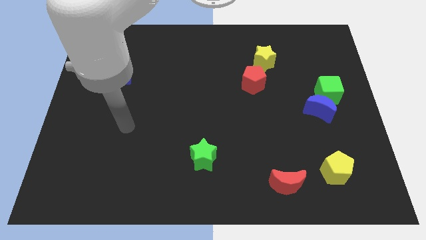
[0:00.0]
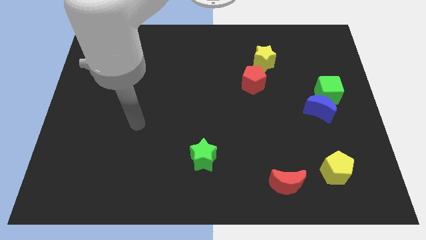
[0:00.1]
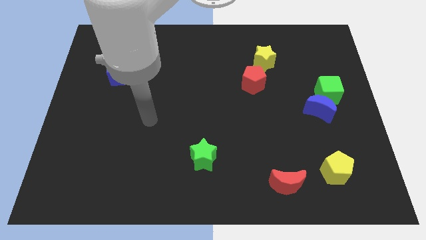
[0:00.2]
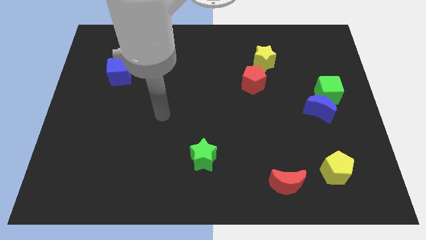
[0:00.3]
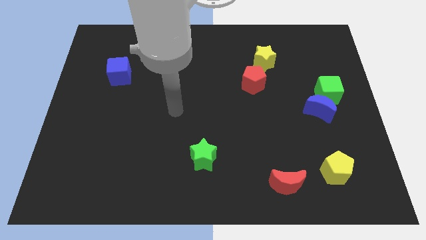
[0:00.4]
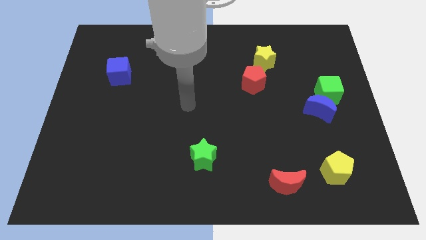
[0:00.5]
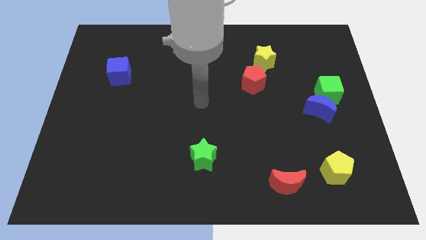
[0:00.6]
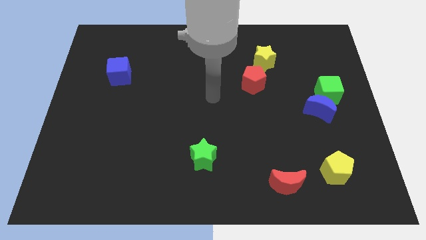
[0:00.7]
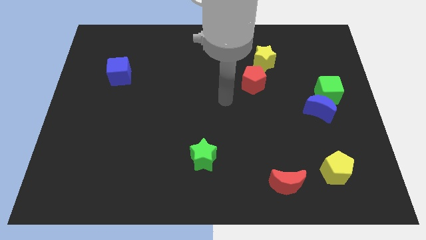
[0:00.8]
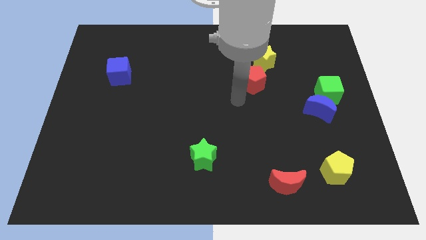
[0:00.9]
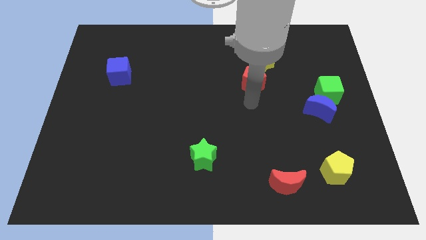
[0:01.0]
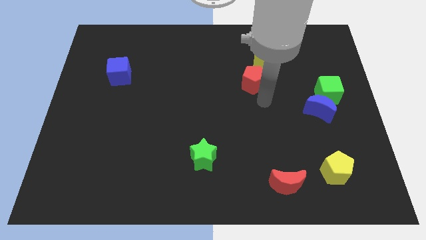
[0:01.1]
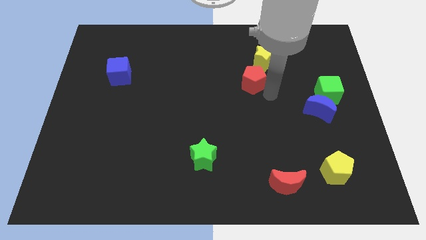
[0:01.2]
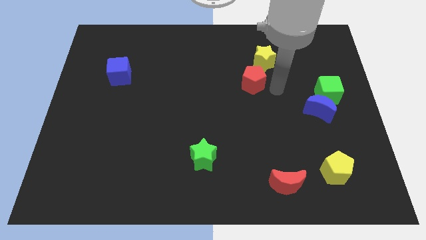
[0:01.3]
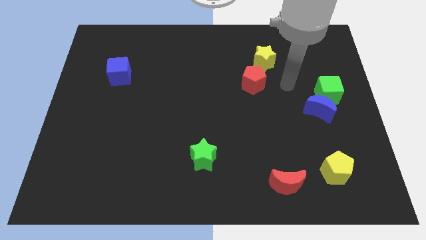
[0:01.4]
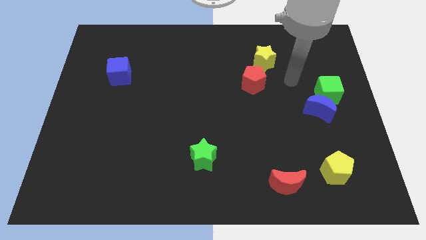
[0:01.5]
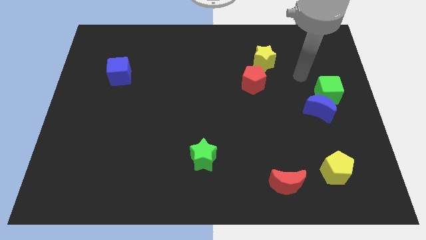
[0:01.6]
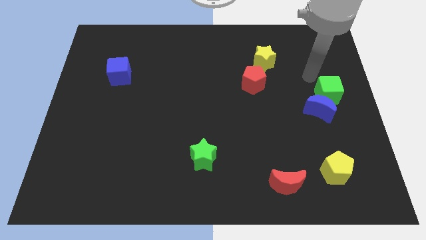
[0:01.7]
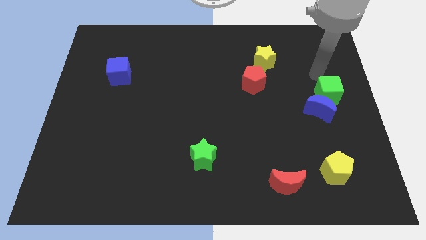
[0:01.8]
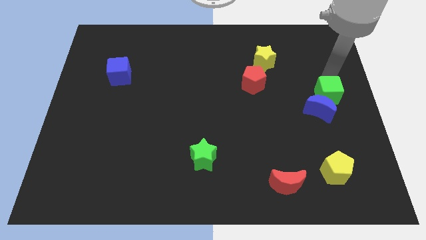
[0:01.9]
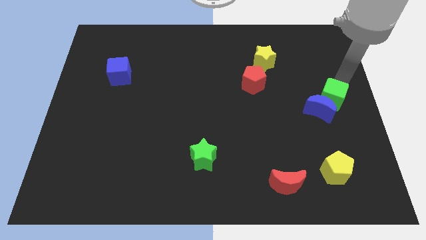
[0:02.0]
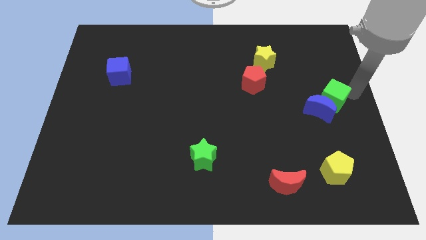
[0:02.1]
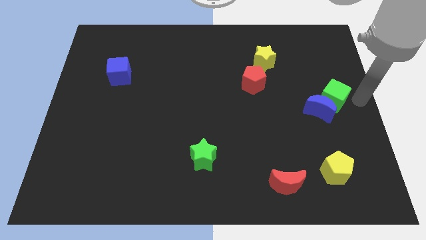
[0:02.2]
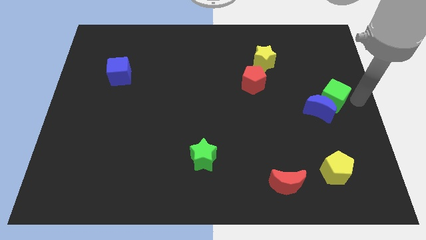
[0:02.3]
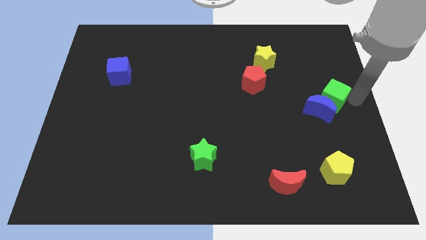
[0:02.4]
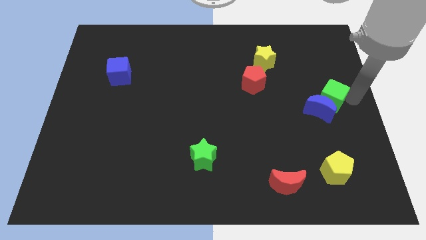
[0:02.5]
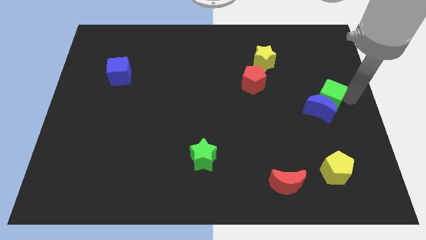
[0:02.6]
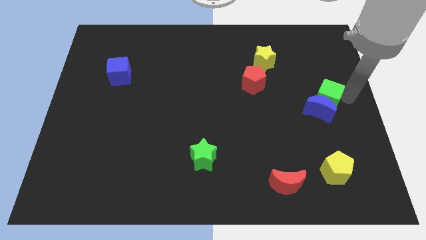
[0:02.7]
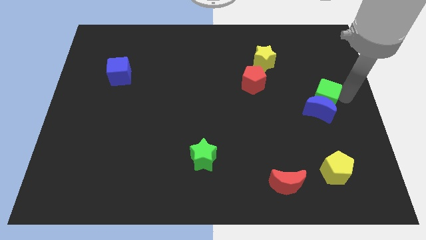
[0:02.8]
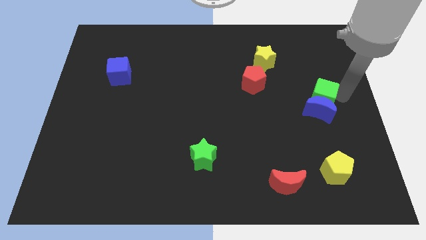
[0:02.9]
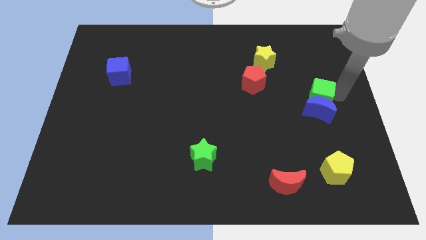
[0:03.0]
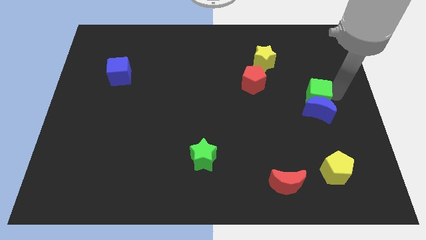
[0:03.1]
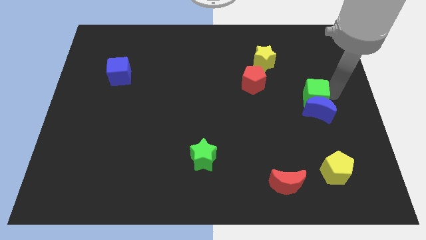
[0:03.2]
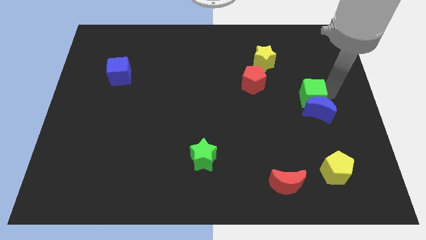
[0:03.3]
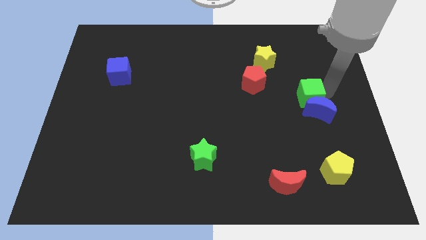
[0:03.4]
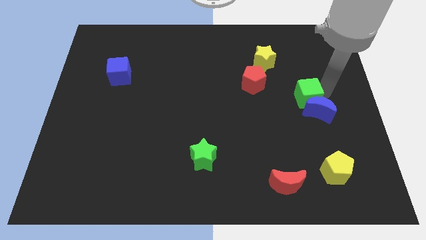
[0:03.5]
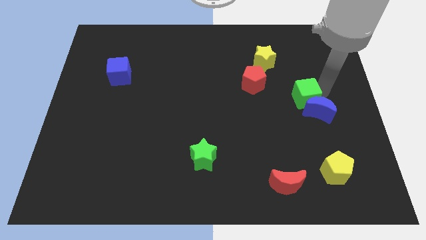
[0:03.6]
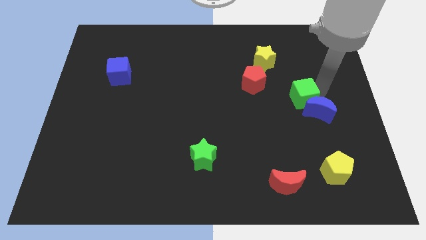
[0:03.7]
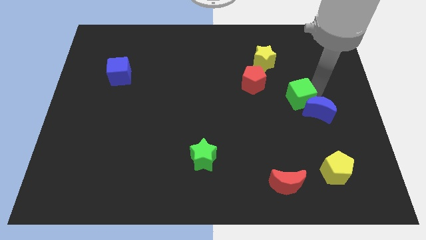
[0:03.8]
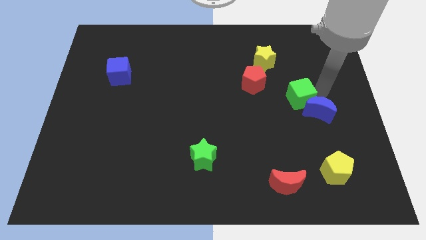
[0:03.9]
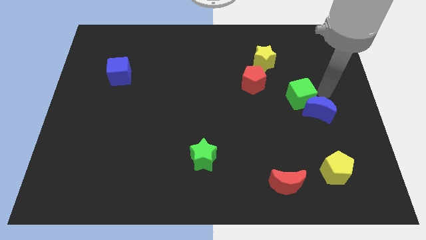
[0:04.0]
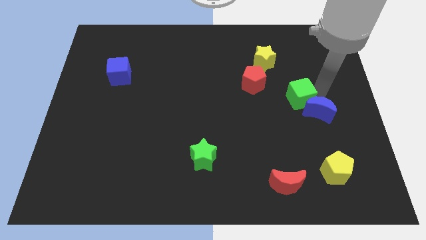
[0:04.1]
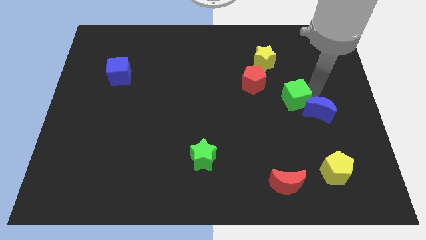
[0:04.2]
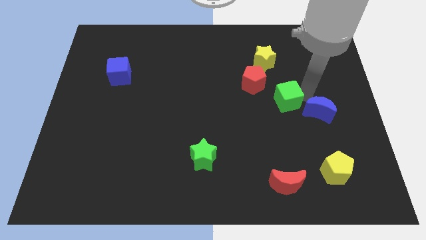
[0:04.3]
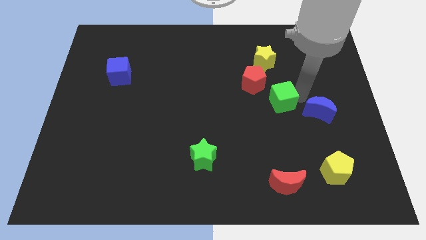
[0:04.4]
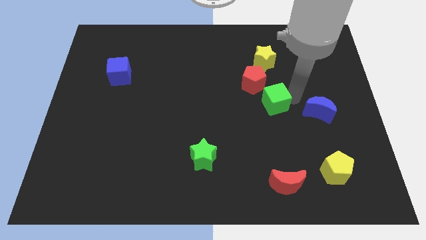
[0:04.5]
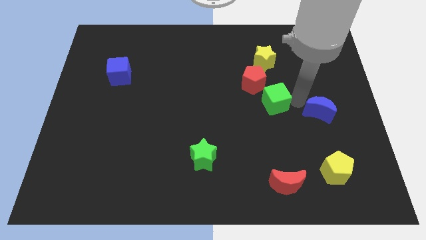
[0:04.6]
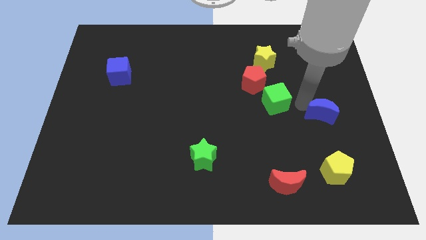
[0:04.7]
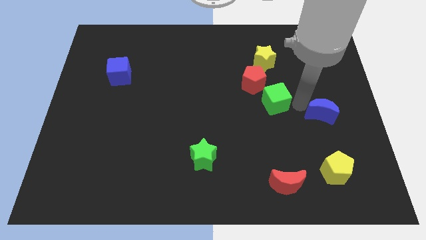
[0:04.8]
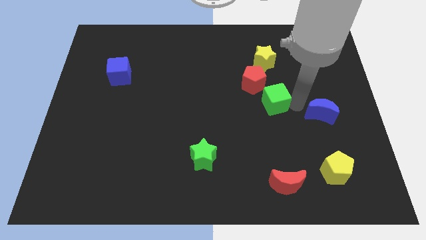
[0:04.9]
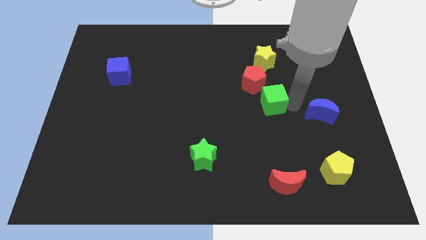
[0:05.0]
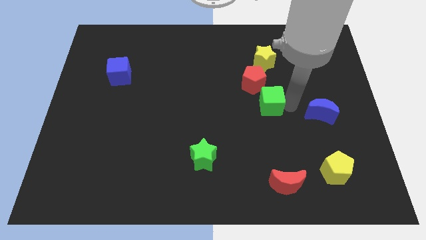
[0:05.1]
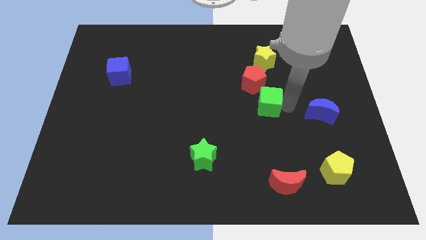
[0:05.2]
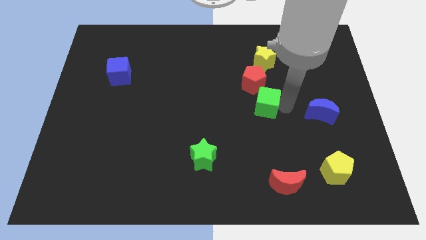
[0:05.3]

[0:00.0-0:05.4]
slide the green cube to the middle of the board
